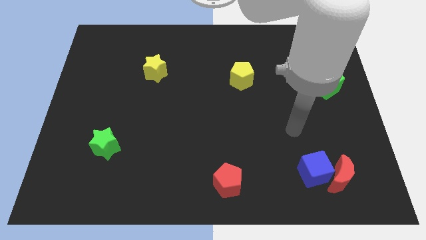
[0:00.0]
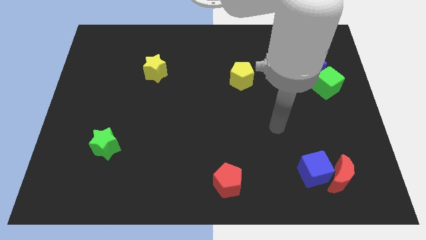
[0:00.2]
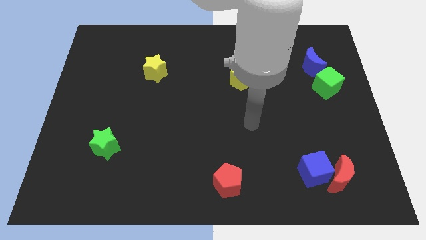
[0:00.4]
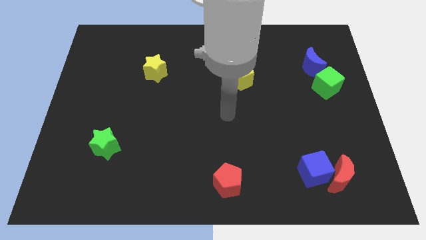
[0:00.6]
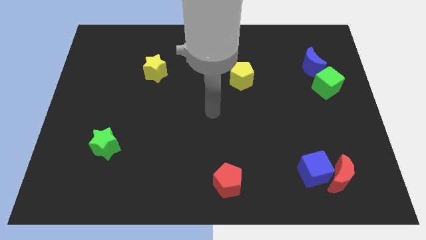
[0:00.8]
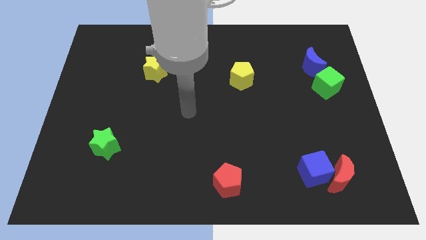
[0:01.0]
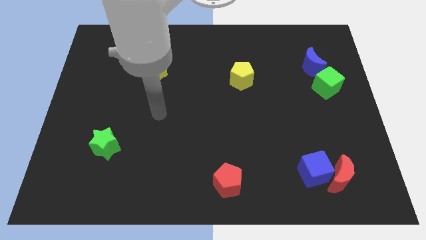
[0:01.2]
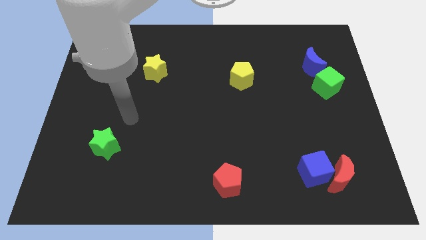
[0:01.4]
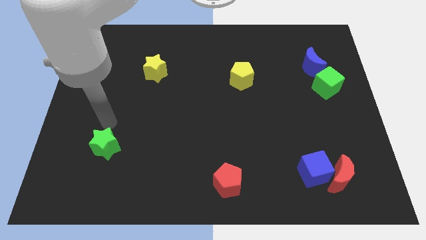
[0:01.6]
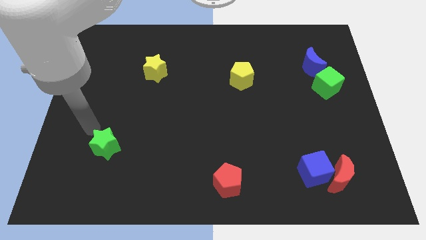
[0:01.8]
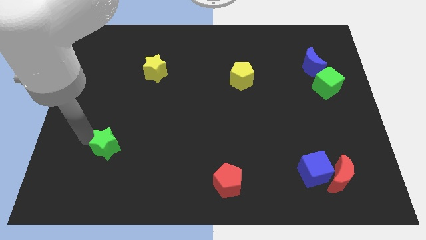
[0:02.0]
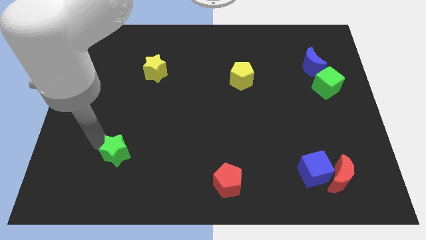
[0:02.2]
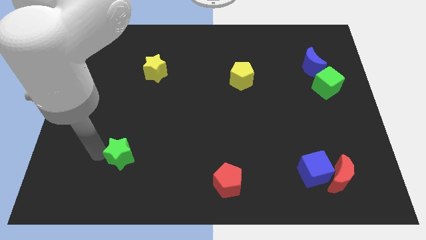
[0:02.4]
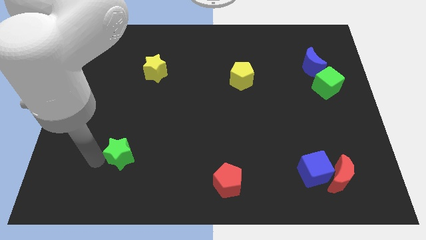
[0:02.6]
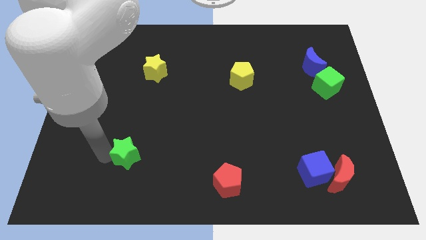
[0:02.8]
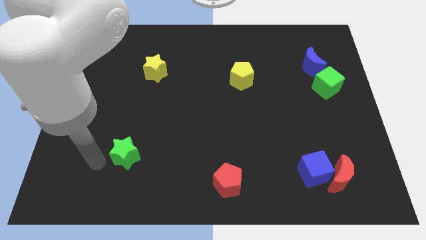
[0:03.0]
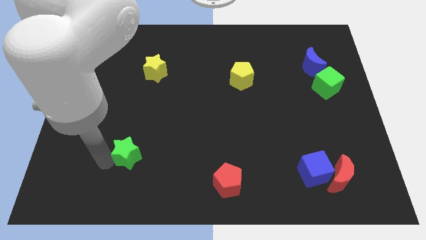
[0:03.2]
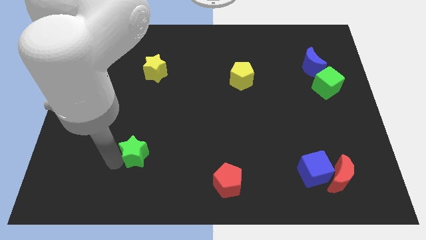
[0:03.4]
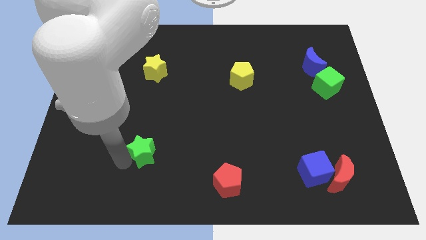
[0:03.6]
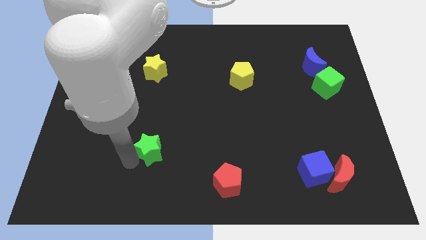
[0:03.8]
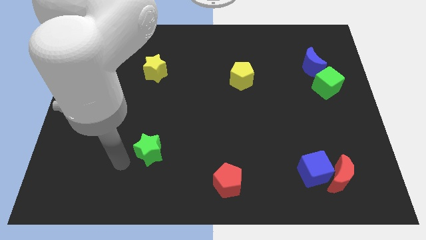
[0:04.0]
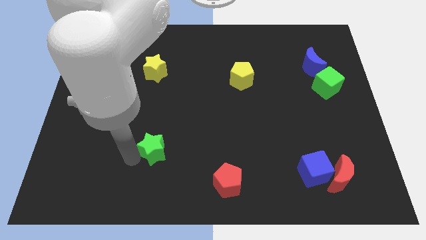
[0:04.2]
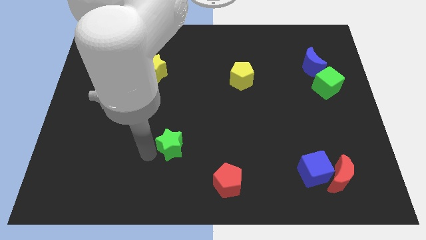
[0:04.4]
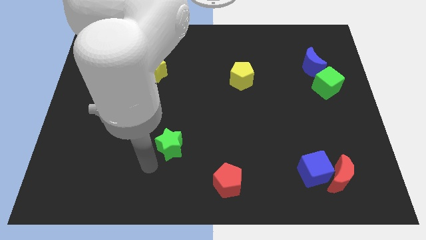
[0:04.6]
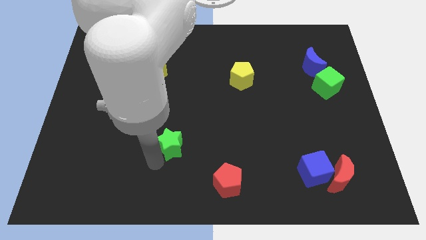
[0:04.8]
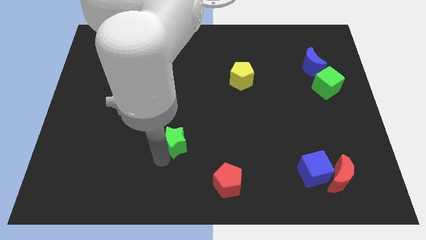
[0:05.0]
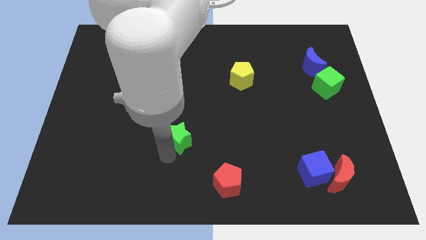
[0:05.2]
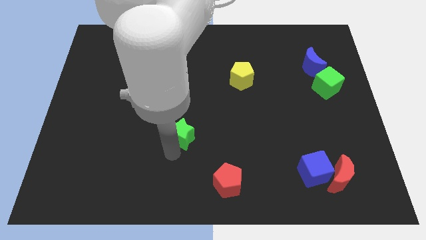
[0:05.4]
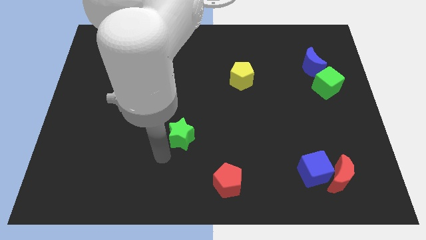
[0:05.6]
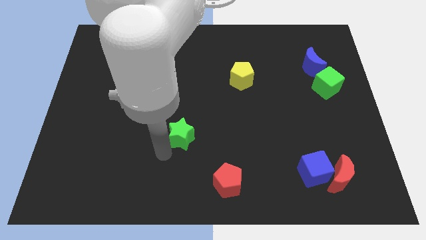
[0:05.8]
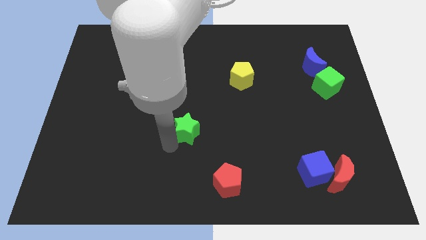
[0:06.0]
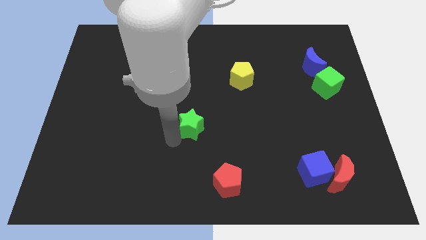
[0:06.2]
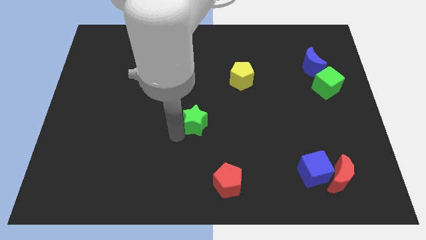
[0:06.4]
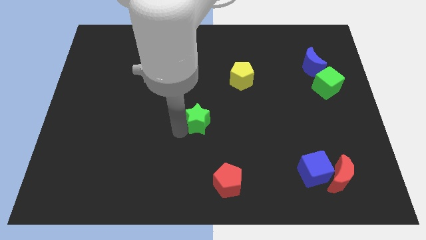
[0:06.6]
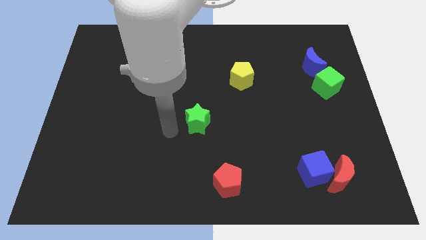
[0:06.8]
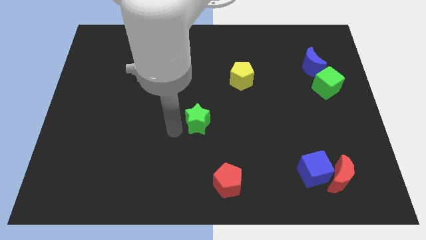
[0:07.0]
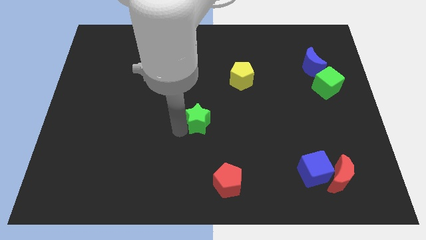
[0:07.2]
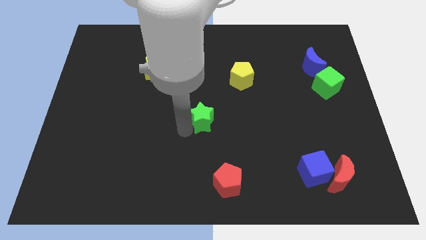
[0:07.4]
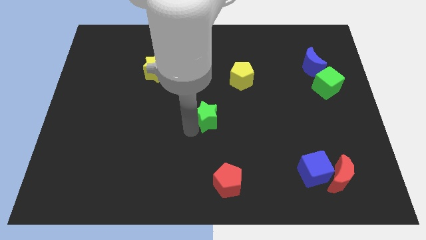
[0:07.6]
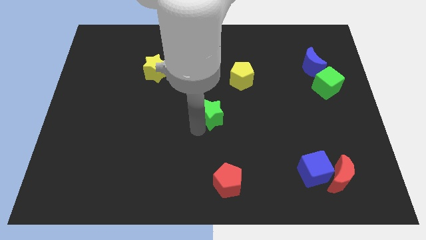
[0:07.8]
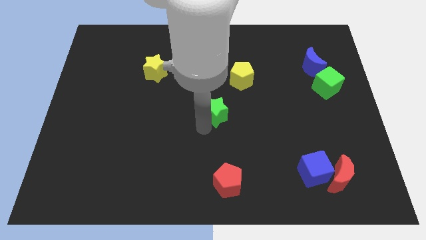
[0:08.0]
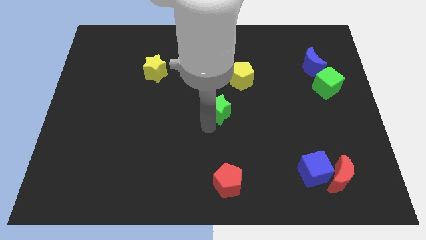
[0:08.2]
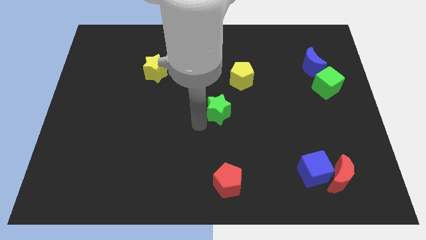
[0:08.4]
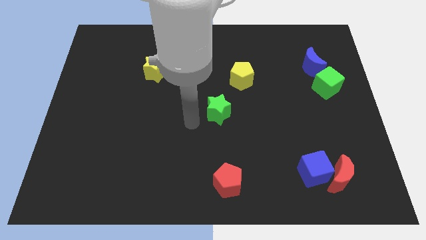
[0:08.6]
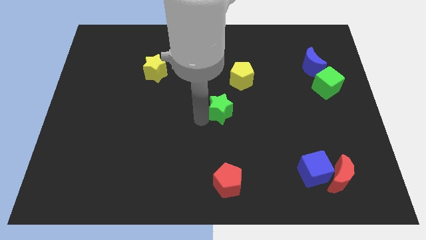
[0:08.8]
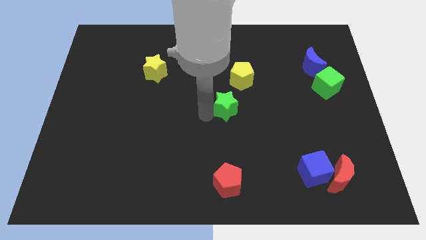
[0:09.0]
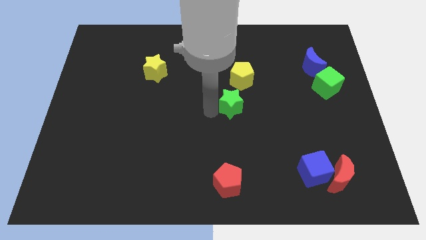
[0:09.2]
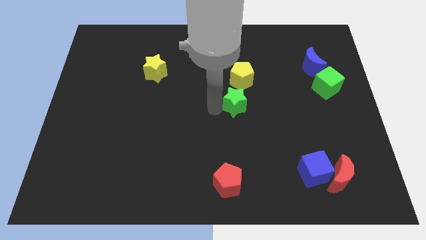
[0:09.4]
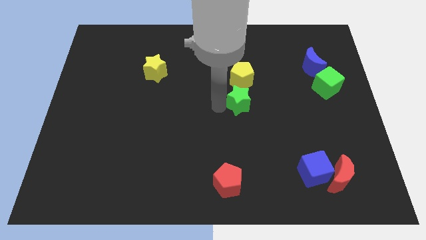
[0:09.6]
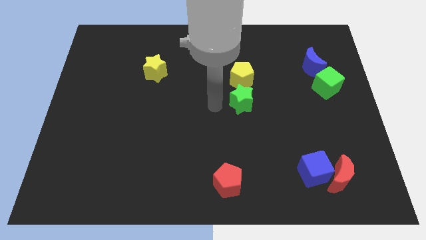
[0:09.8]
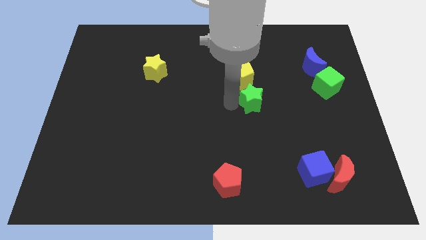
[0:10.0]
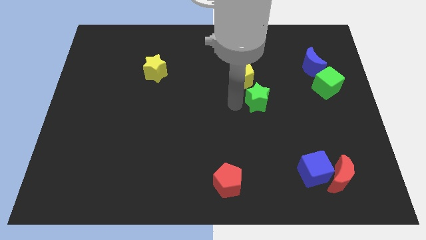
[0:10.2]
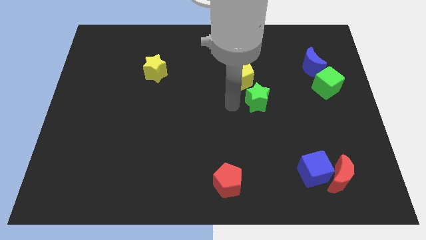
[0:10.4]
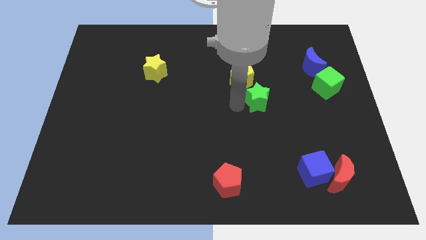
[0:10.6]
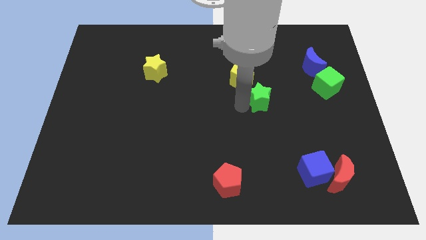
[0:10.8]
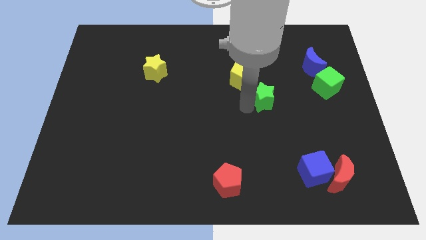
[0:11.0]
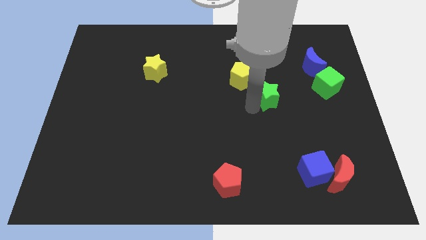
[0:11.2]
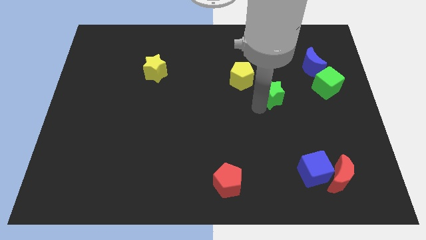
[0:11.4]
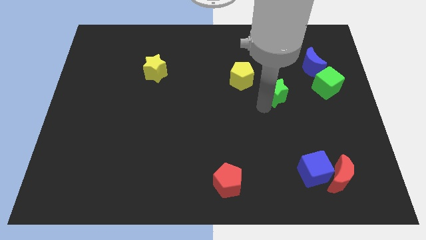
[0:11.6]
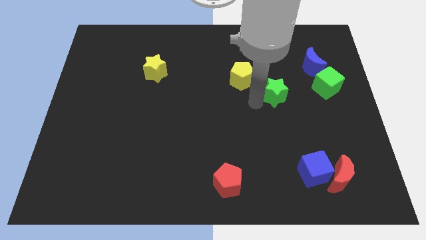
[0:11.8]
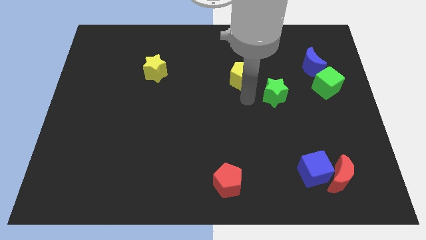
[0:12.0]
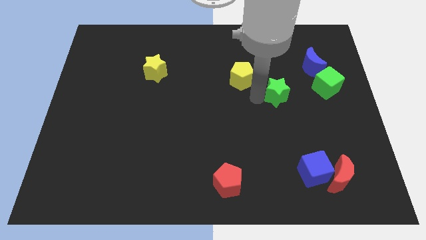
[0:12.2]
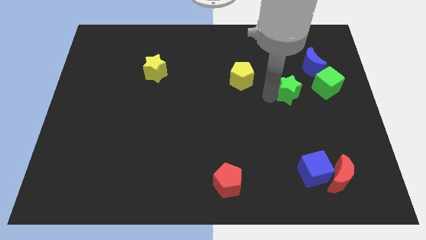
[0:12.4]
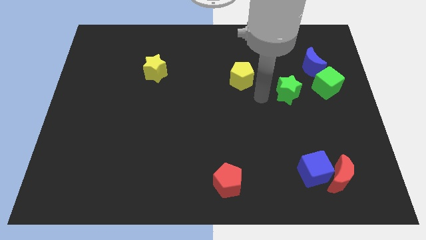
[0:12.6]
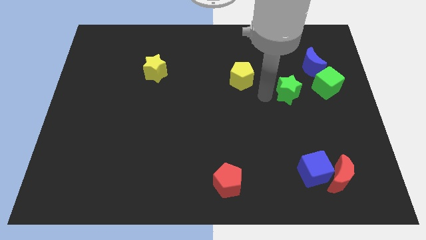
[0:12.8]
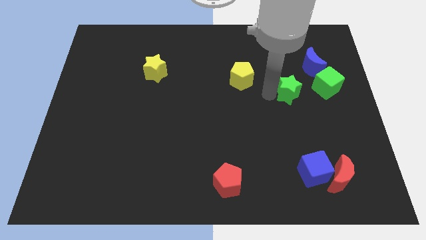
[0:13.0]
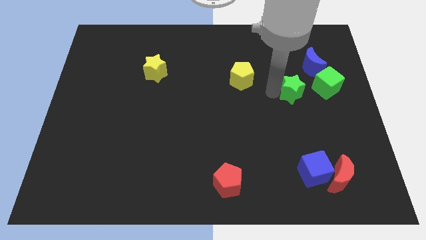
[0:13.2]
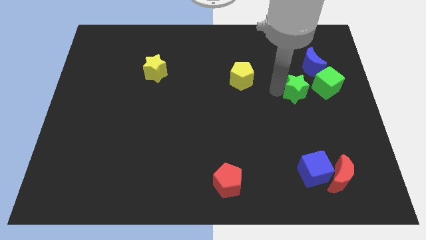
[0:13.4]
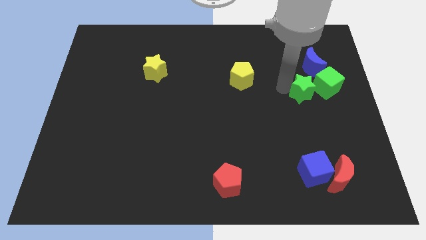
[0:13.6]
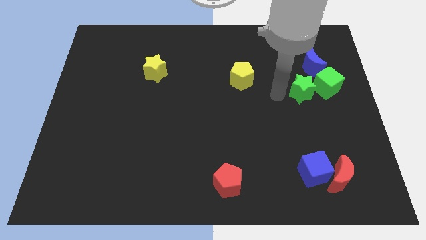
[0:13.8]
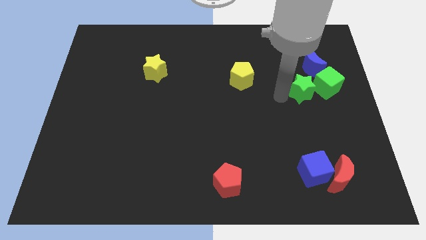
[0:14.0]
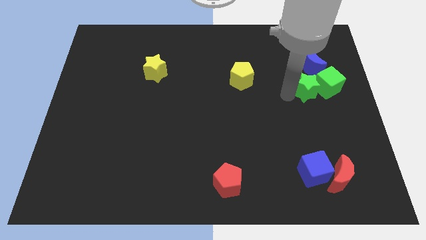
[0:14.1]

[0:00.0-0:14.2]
put the green star next to the green cube
